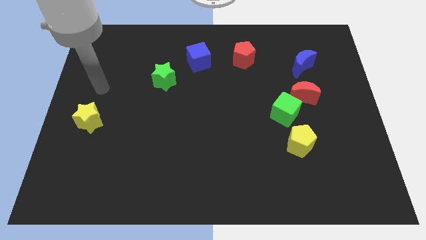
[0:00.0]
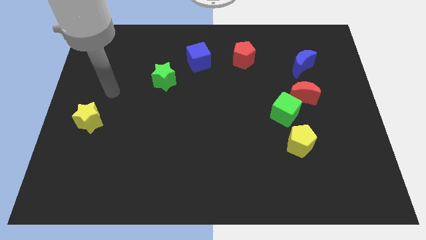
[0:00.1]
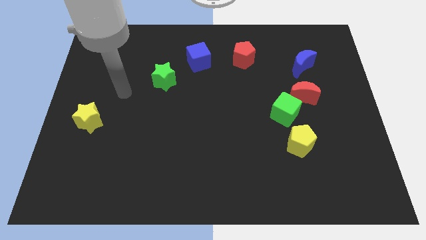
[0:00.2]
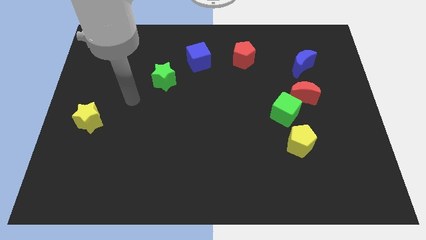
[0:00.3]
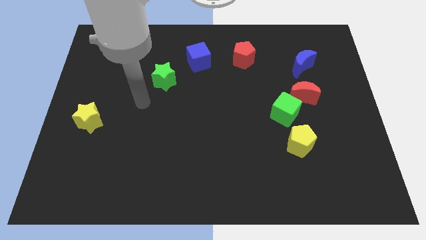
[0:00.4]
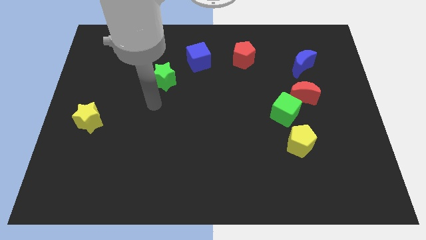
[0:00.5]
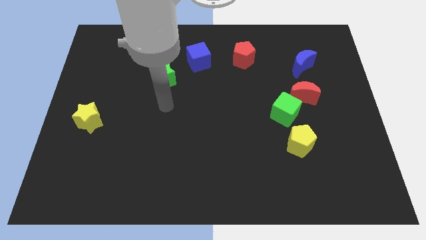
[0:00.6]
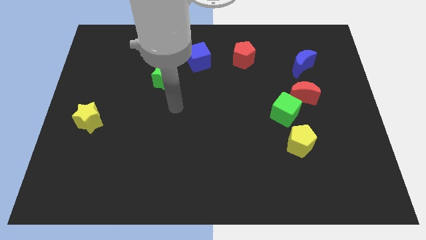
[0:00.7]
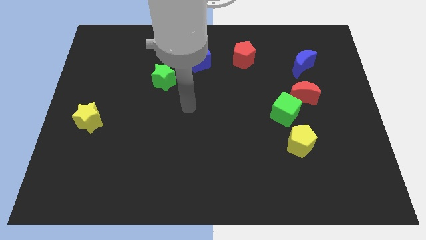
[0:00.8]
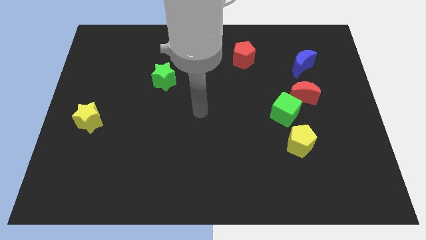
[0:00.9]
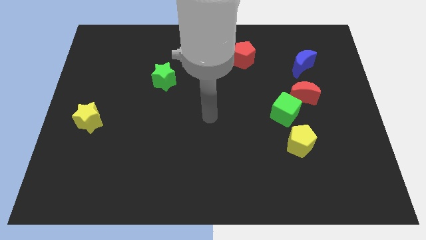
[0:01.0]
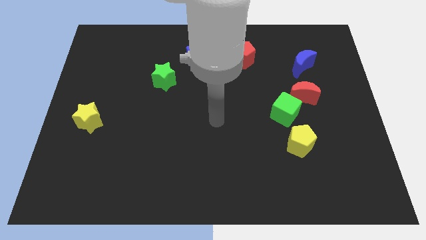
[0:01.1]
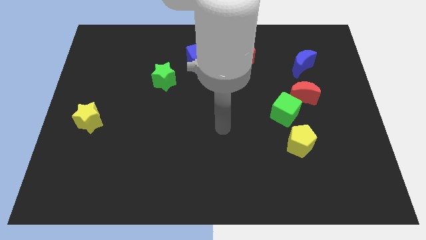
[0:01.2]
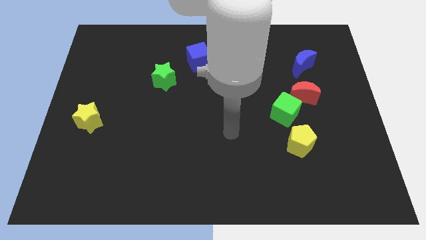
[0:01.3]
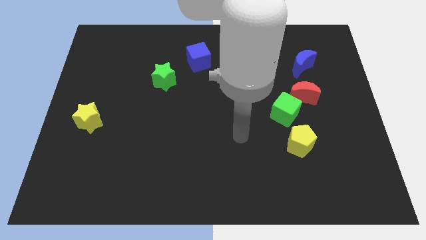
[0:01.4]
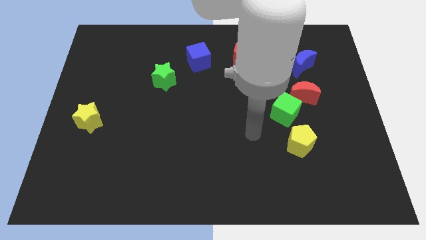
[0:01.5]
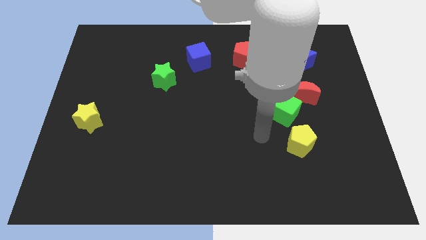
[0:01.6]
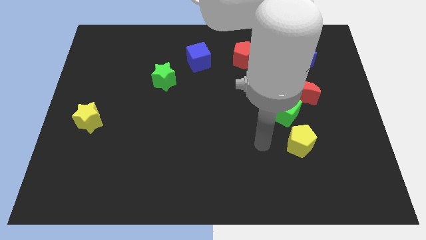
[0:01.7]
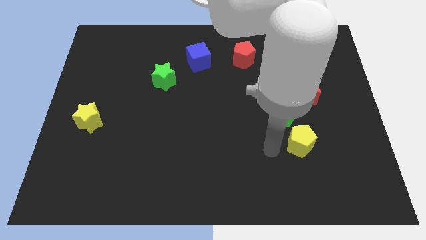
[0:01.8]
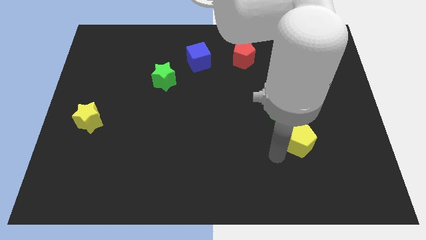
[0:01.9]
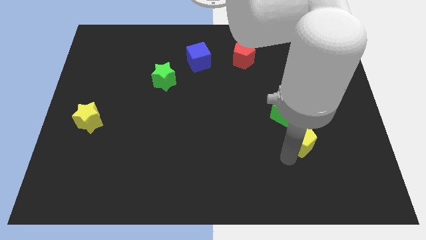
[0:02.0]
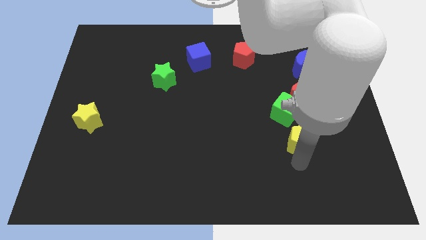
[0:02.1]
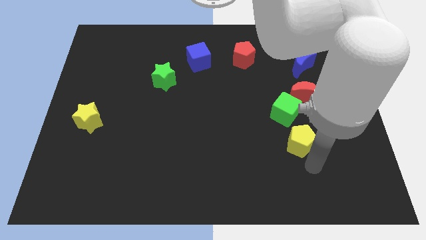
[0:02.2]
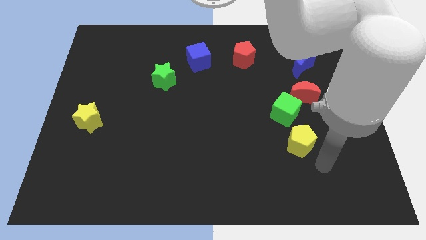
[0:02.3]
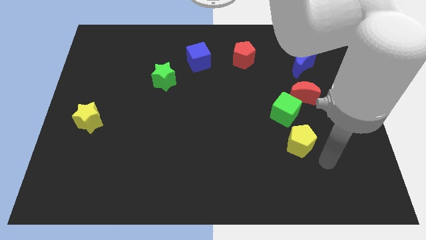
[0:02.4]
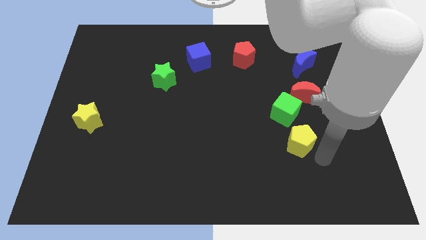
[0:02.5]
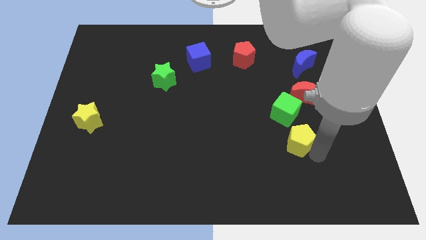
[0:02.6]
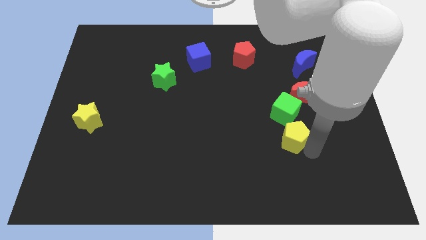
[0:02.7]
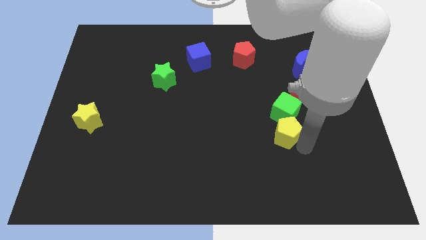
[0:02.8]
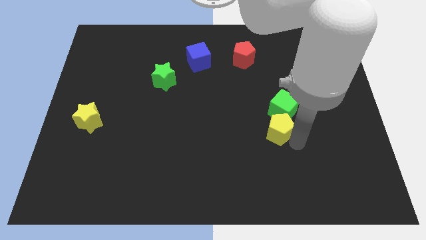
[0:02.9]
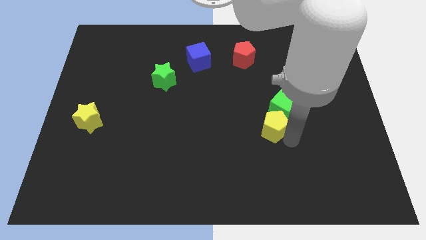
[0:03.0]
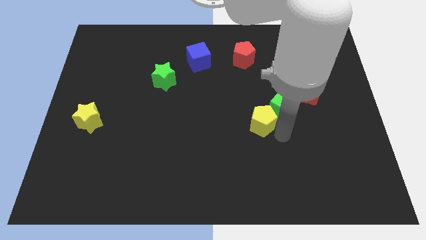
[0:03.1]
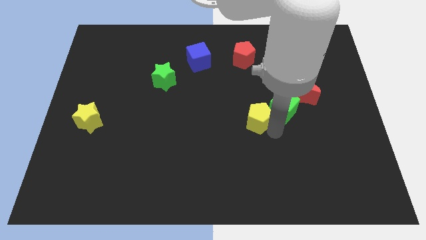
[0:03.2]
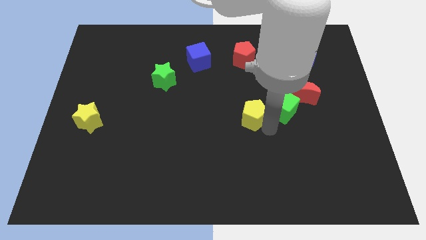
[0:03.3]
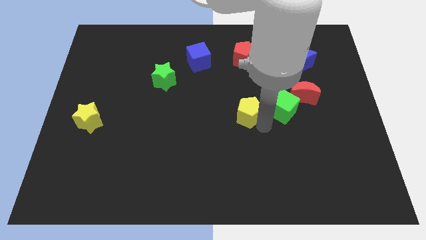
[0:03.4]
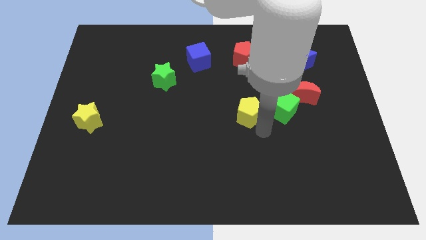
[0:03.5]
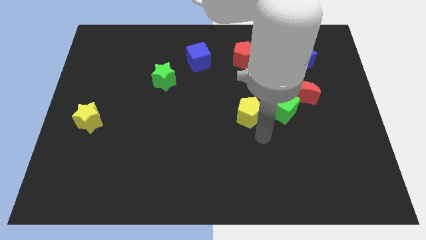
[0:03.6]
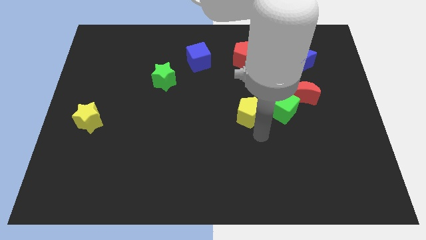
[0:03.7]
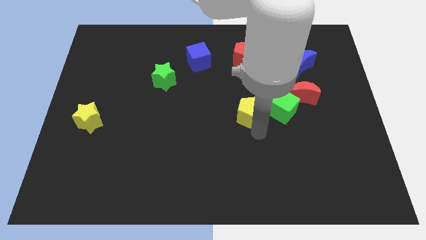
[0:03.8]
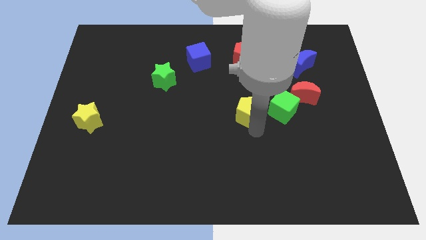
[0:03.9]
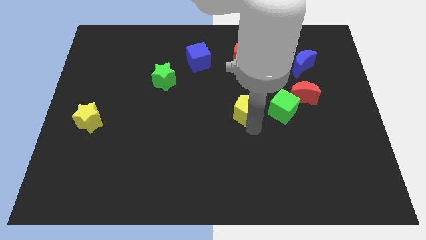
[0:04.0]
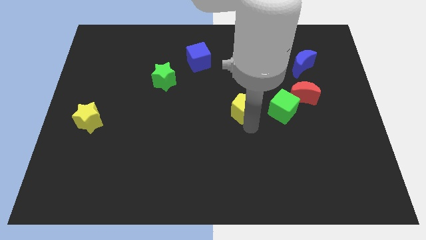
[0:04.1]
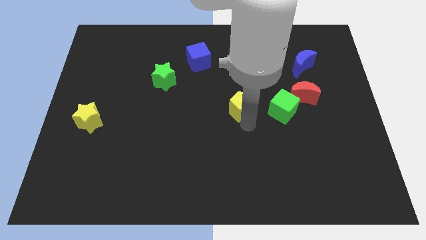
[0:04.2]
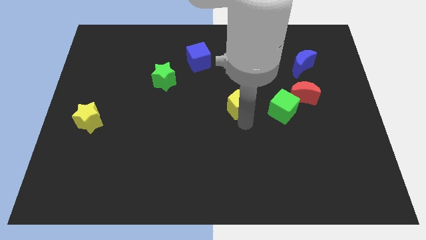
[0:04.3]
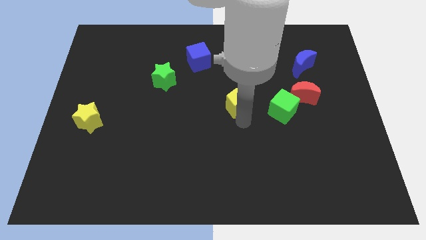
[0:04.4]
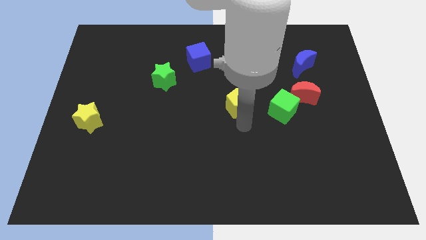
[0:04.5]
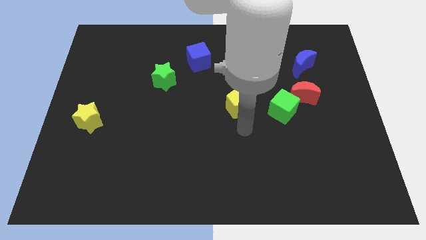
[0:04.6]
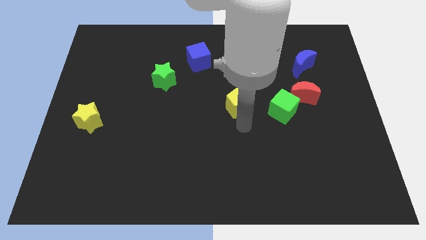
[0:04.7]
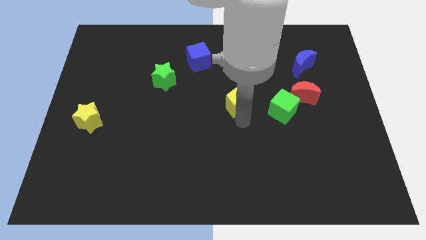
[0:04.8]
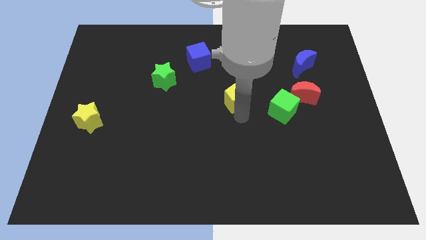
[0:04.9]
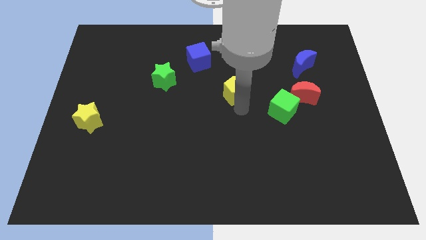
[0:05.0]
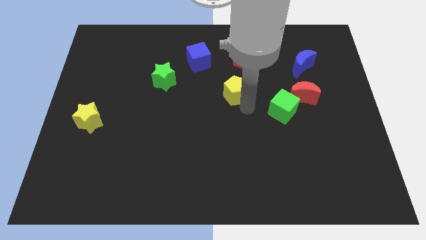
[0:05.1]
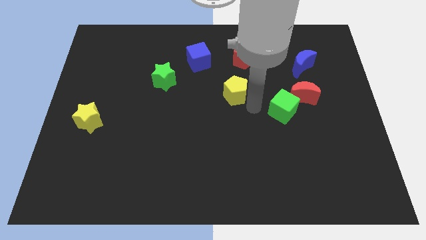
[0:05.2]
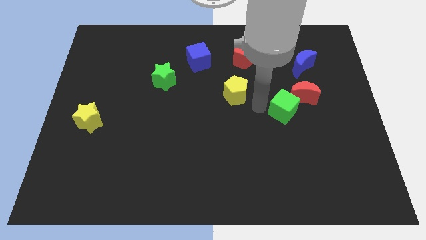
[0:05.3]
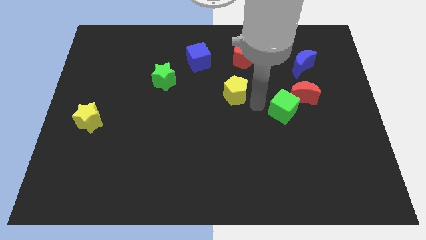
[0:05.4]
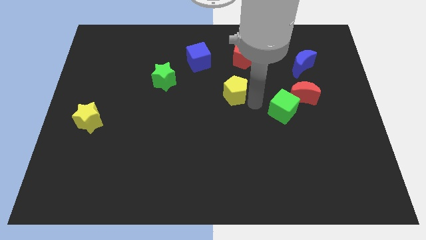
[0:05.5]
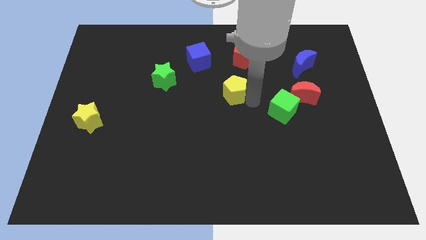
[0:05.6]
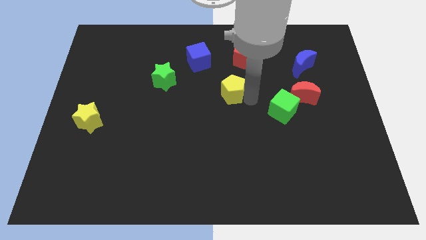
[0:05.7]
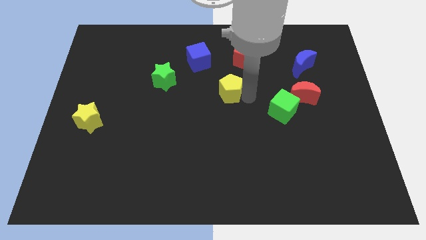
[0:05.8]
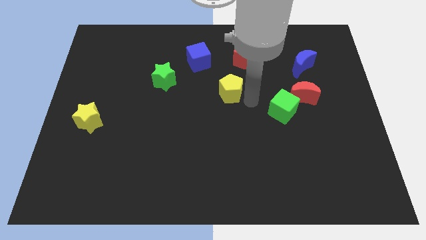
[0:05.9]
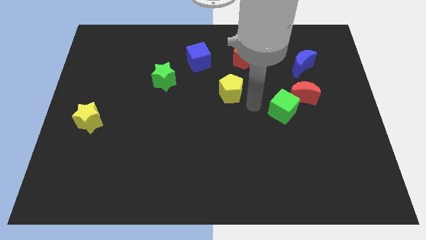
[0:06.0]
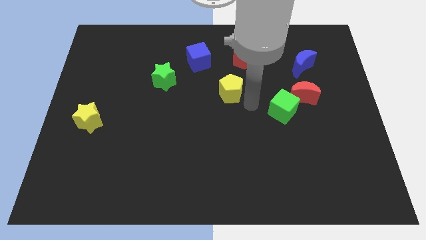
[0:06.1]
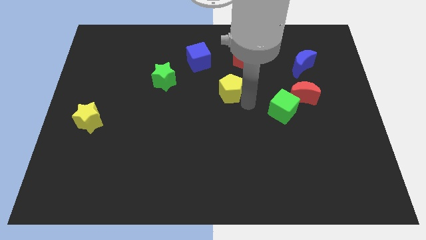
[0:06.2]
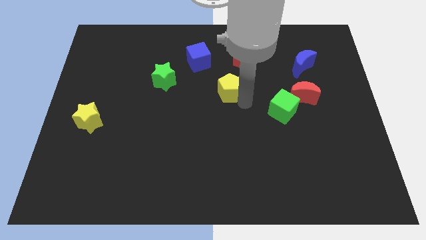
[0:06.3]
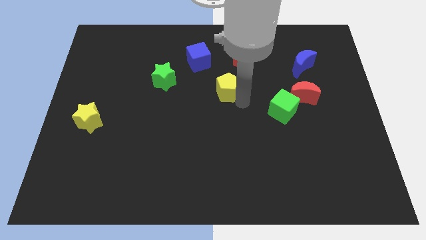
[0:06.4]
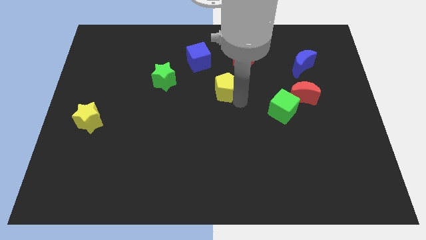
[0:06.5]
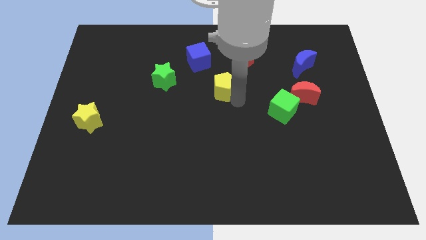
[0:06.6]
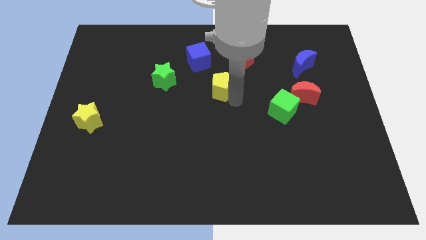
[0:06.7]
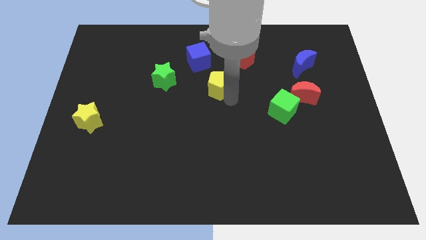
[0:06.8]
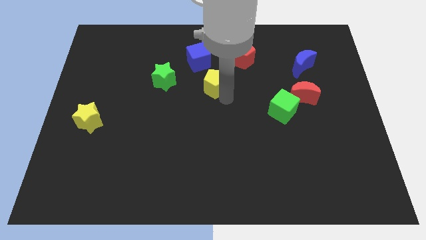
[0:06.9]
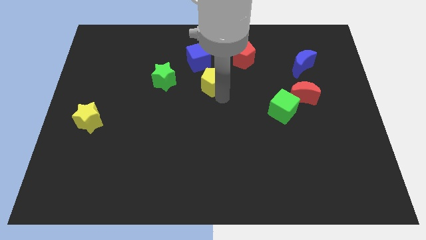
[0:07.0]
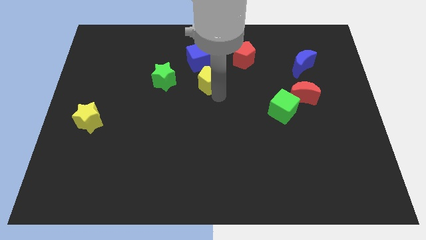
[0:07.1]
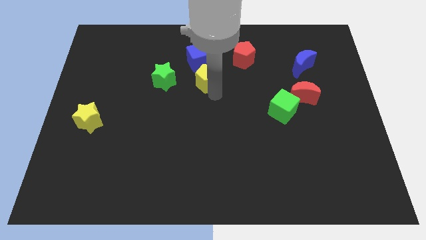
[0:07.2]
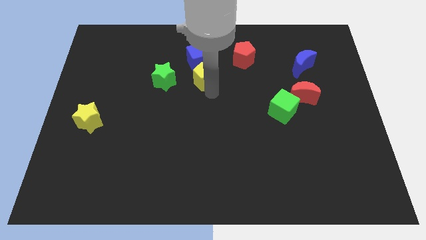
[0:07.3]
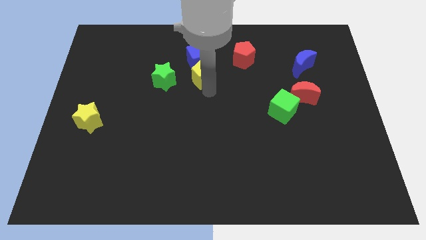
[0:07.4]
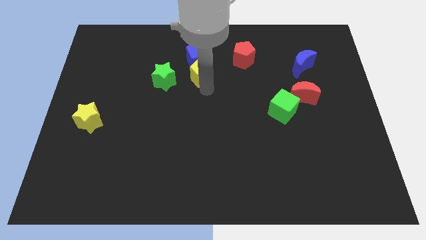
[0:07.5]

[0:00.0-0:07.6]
put the yellow pentagon next to the blue cube
